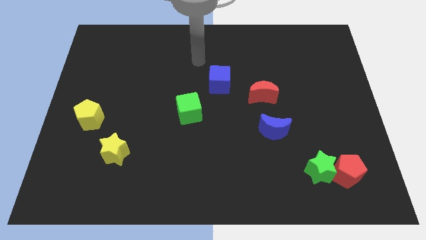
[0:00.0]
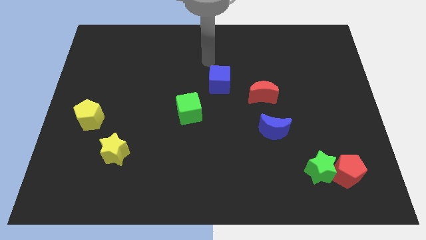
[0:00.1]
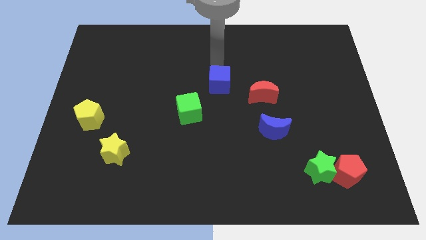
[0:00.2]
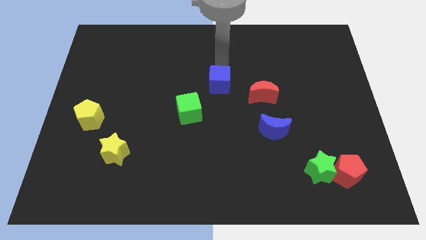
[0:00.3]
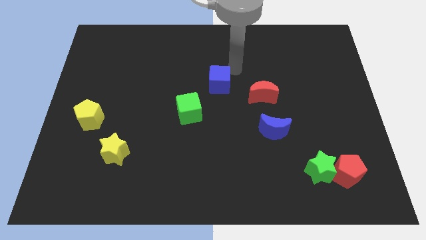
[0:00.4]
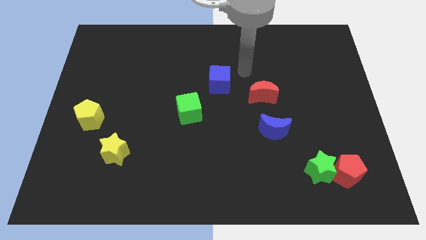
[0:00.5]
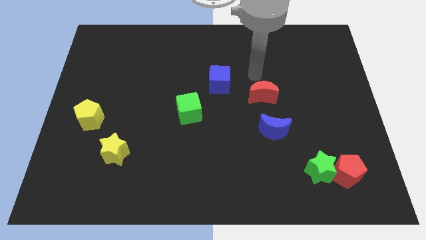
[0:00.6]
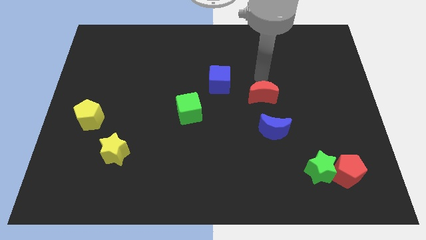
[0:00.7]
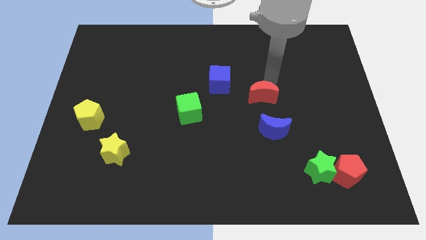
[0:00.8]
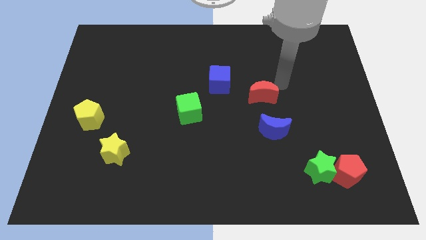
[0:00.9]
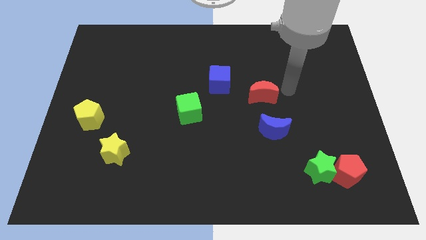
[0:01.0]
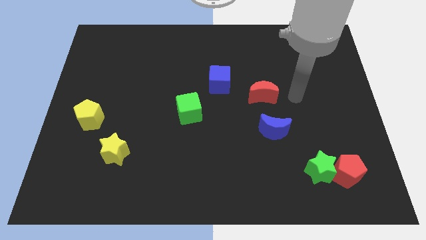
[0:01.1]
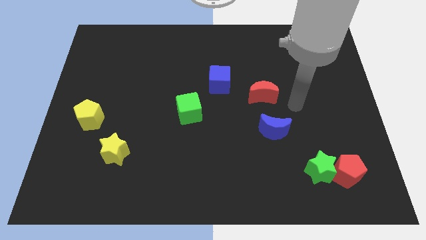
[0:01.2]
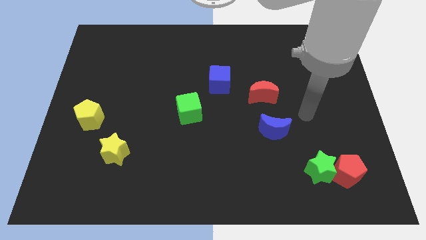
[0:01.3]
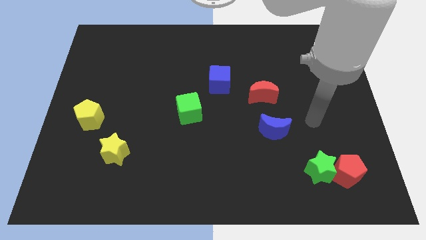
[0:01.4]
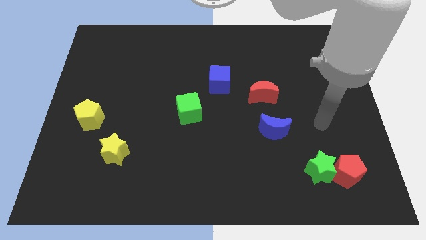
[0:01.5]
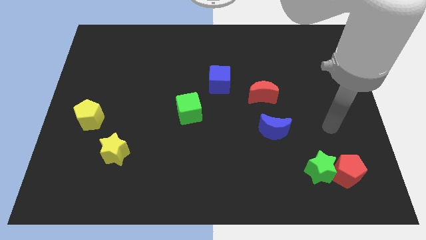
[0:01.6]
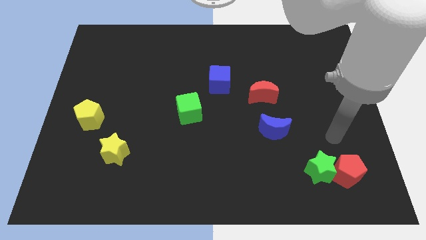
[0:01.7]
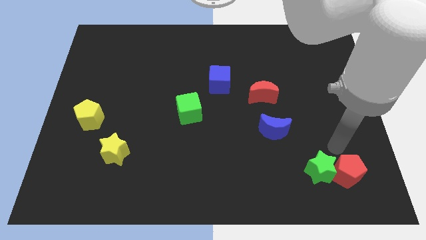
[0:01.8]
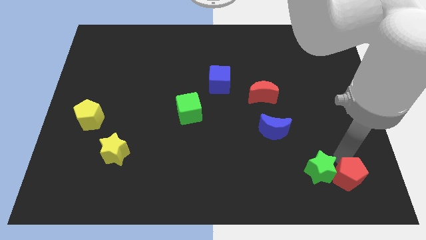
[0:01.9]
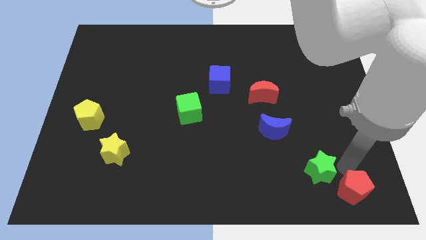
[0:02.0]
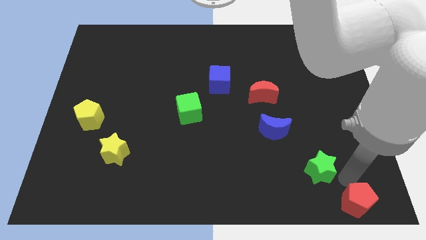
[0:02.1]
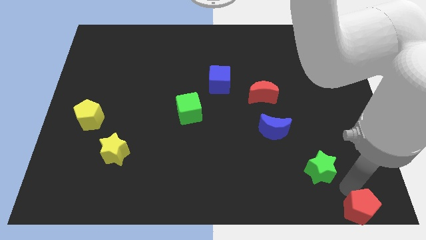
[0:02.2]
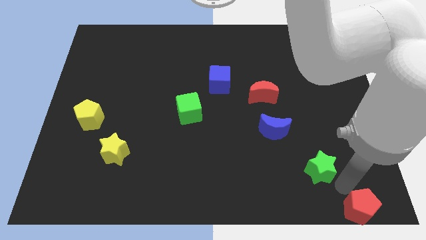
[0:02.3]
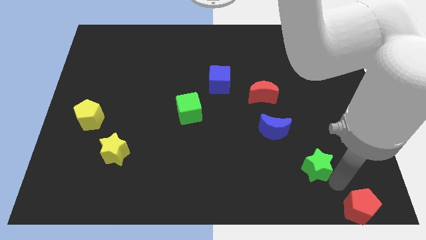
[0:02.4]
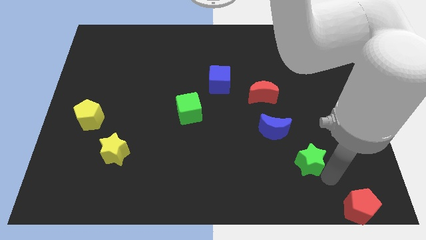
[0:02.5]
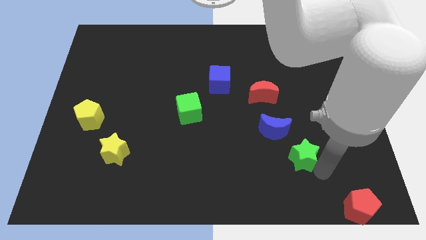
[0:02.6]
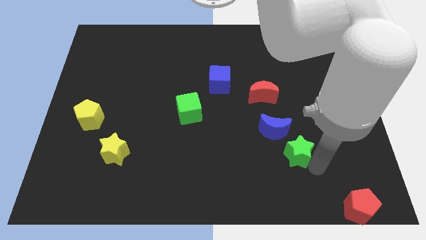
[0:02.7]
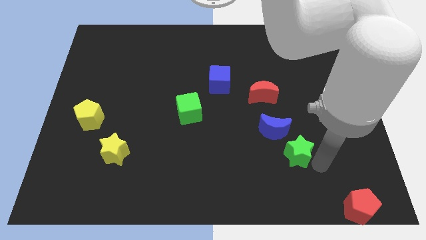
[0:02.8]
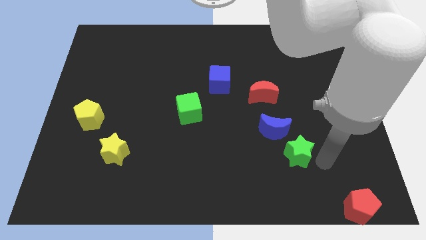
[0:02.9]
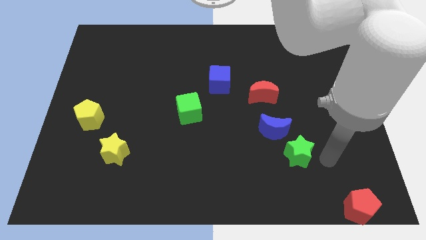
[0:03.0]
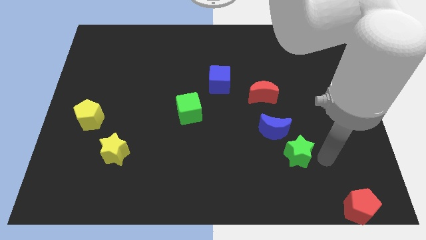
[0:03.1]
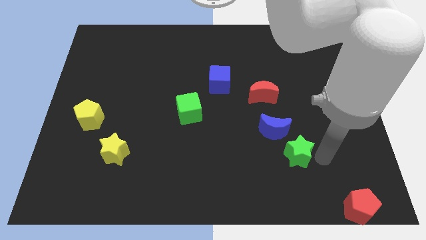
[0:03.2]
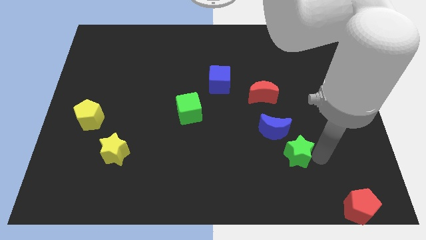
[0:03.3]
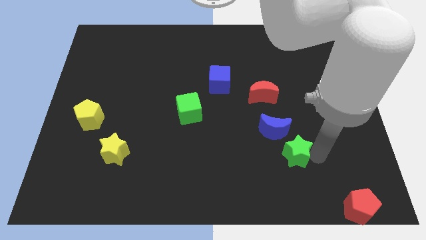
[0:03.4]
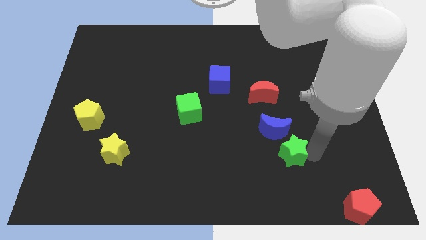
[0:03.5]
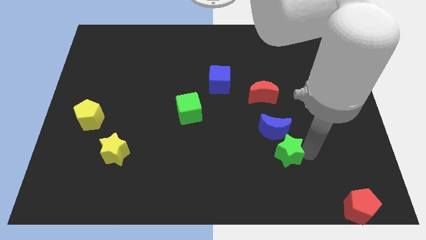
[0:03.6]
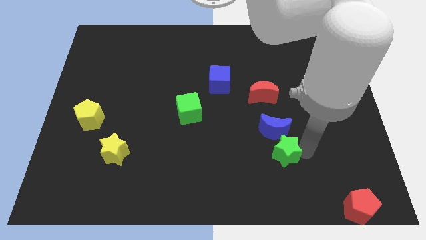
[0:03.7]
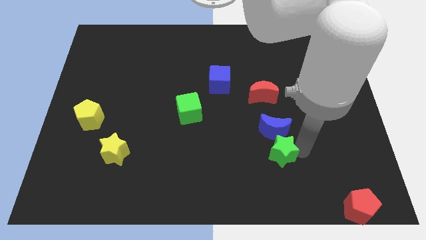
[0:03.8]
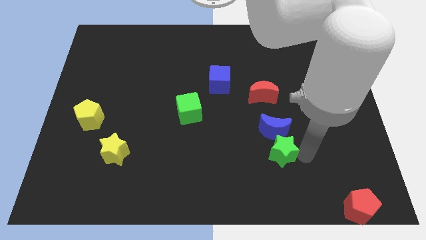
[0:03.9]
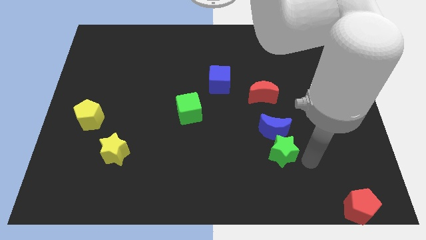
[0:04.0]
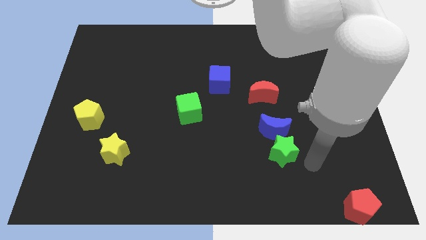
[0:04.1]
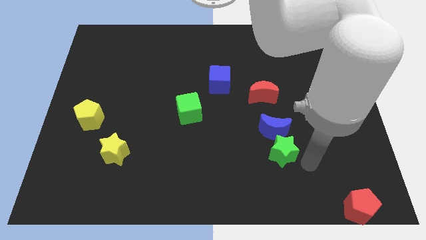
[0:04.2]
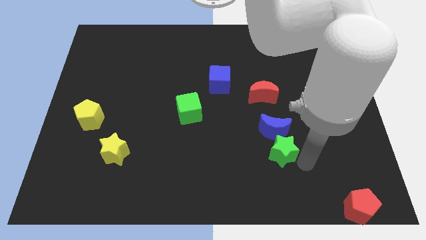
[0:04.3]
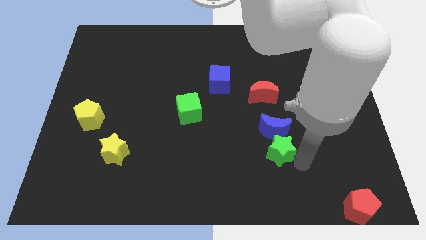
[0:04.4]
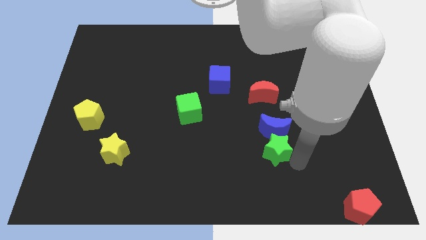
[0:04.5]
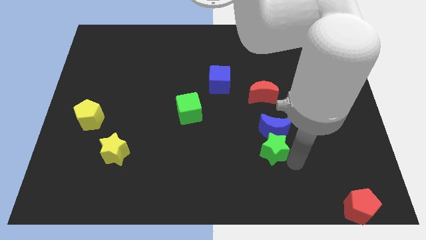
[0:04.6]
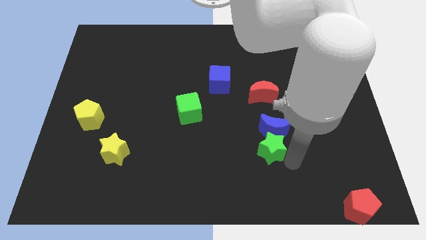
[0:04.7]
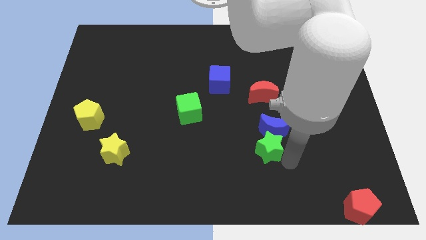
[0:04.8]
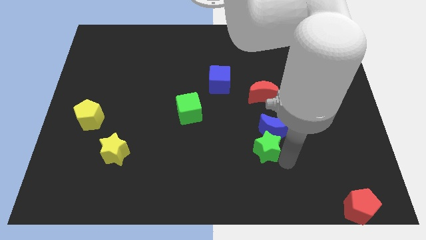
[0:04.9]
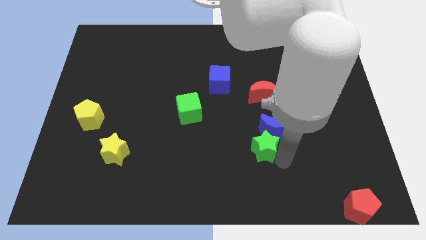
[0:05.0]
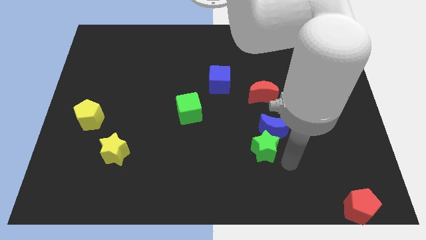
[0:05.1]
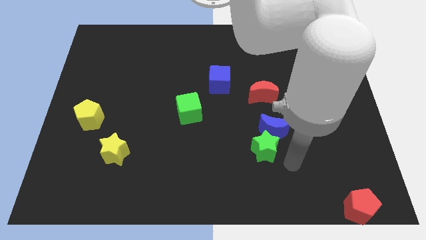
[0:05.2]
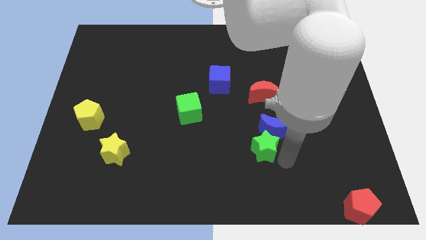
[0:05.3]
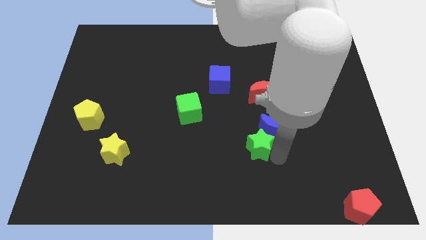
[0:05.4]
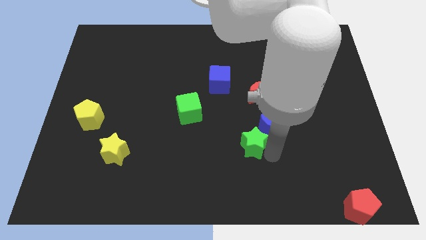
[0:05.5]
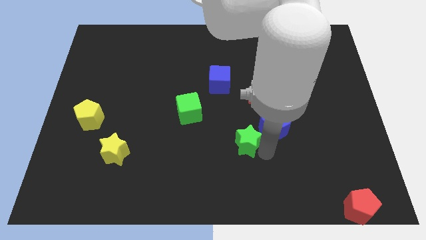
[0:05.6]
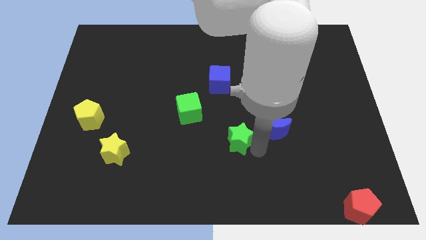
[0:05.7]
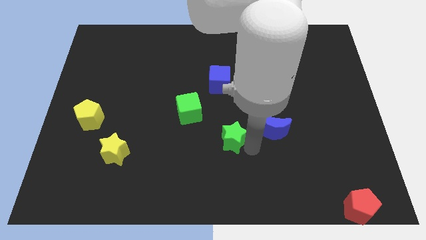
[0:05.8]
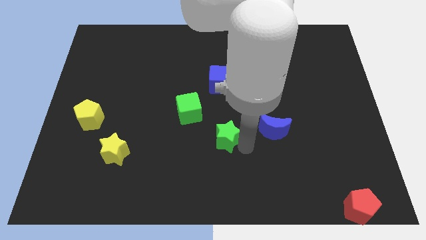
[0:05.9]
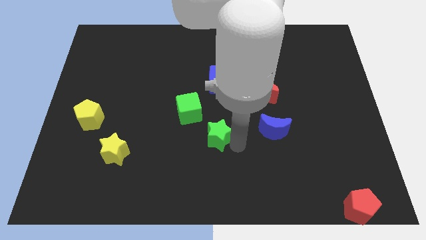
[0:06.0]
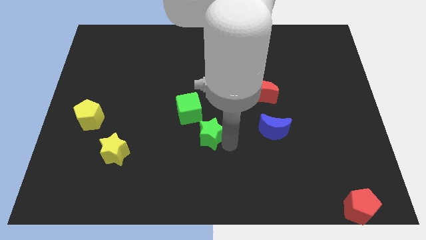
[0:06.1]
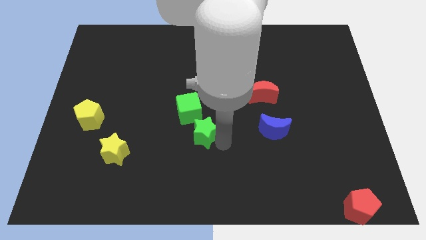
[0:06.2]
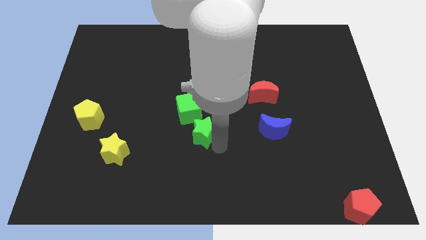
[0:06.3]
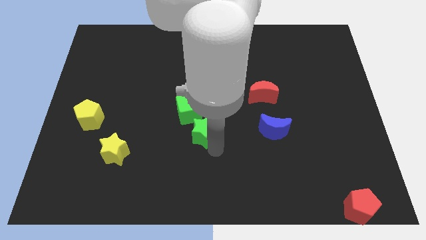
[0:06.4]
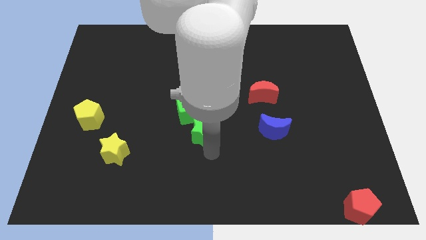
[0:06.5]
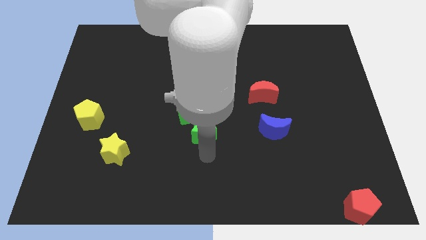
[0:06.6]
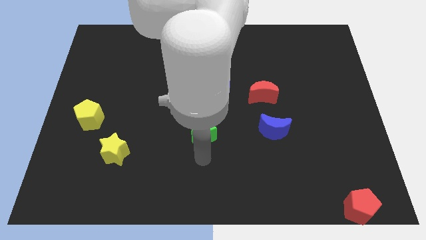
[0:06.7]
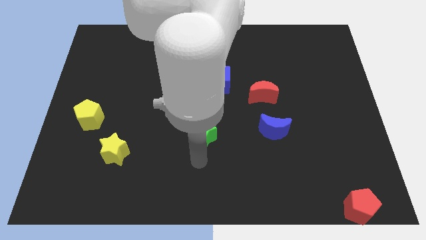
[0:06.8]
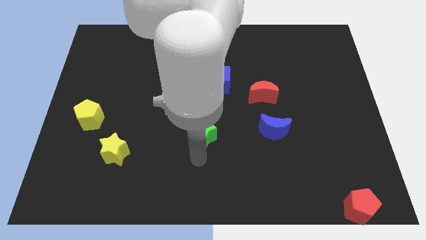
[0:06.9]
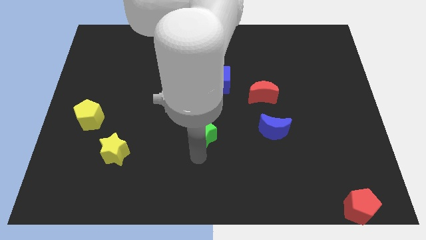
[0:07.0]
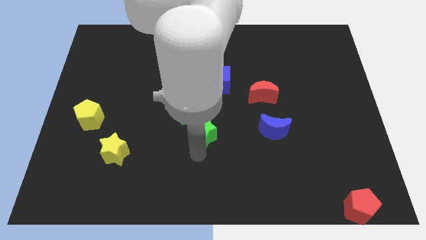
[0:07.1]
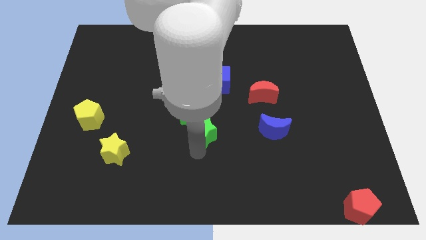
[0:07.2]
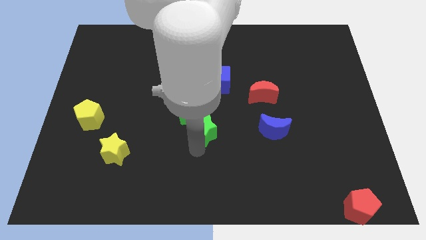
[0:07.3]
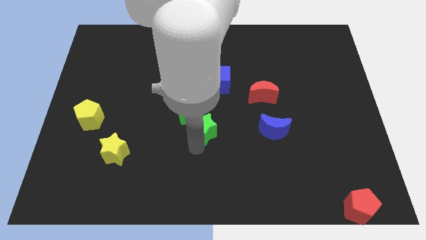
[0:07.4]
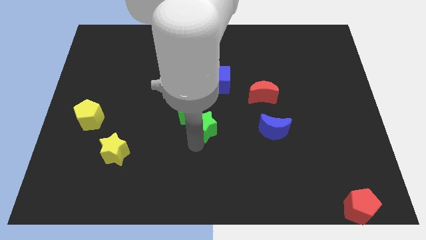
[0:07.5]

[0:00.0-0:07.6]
put the green star close to the green cube
